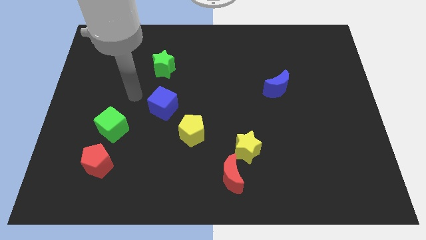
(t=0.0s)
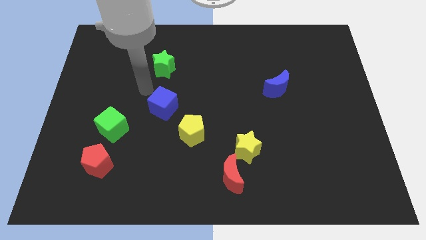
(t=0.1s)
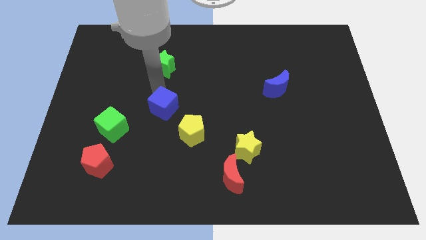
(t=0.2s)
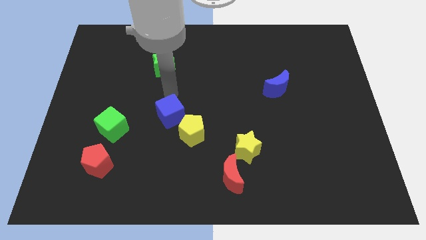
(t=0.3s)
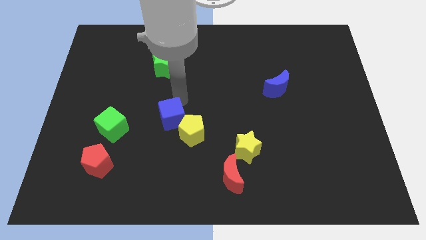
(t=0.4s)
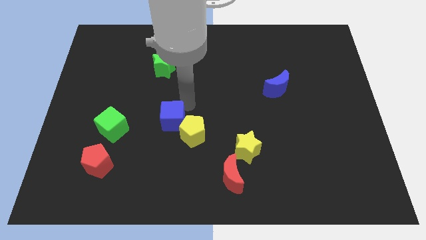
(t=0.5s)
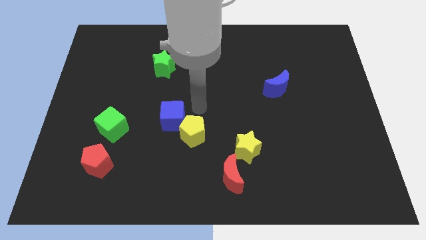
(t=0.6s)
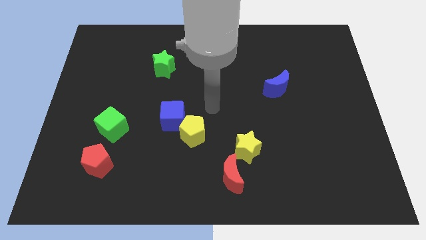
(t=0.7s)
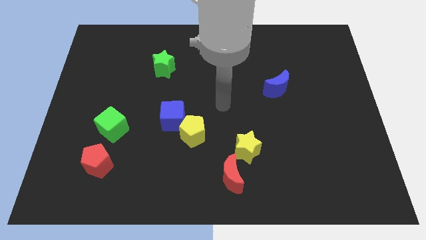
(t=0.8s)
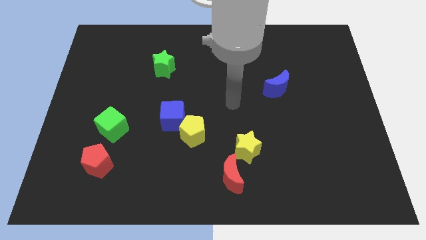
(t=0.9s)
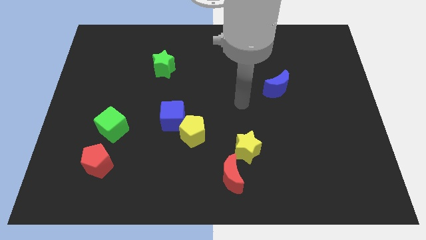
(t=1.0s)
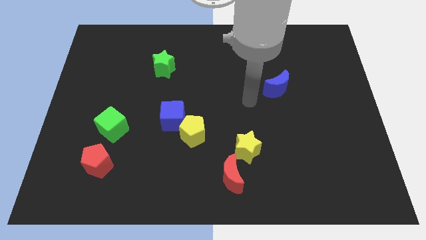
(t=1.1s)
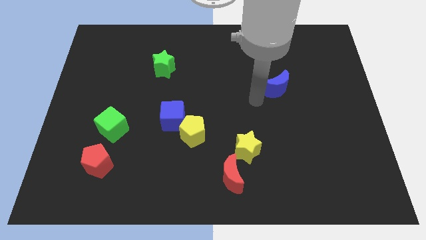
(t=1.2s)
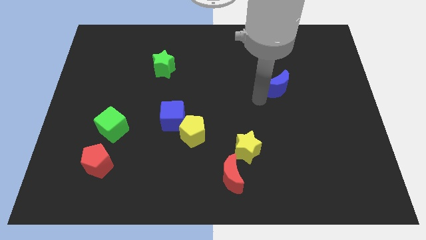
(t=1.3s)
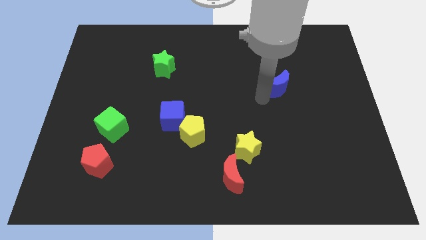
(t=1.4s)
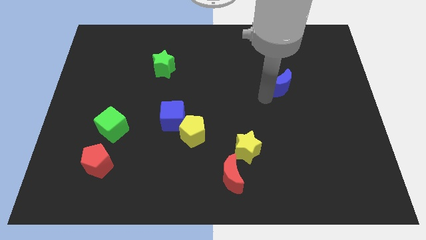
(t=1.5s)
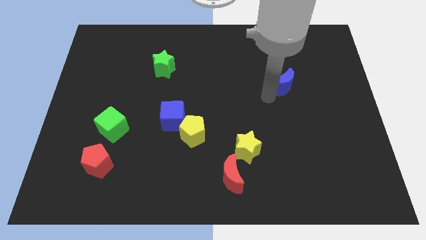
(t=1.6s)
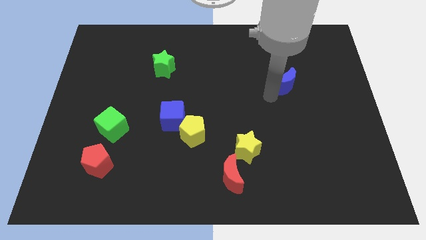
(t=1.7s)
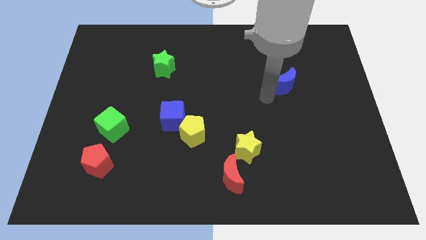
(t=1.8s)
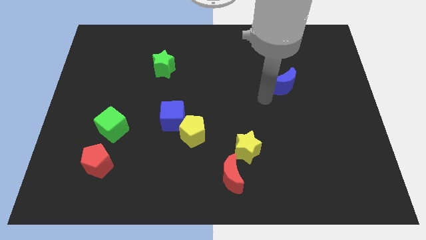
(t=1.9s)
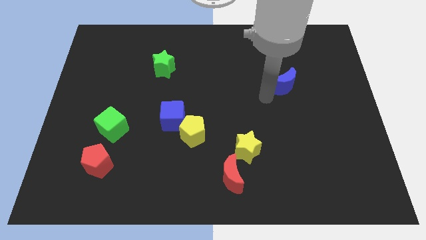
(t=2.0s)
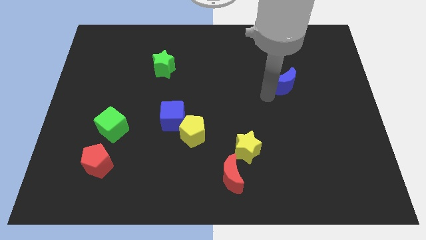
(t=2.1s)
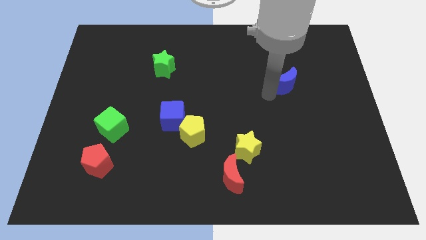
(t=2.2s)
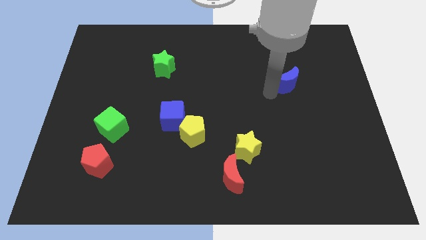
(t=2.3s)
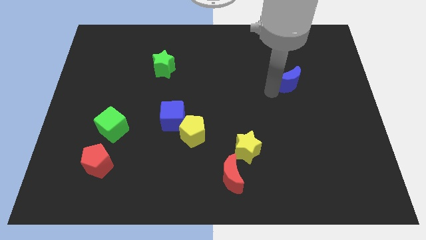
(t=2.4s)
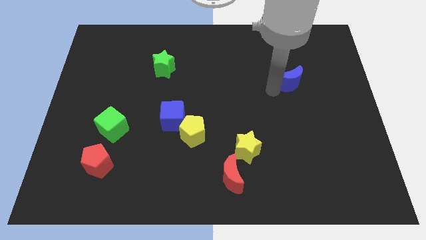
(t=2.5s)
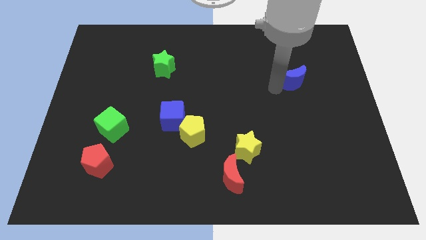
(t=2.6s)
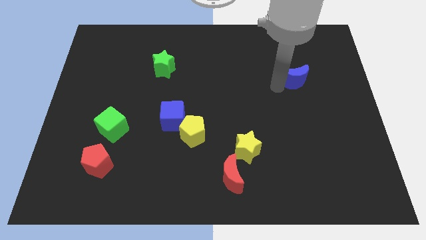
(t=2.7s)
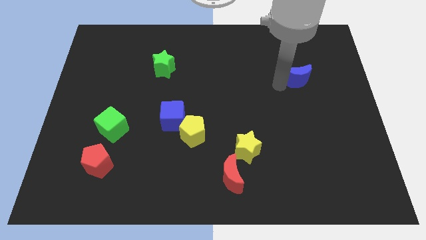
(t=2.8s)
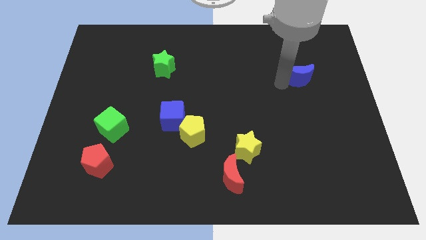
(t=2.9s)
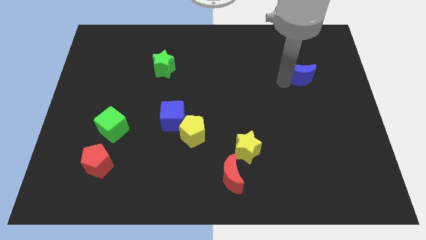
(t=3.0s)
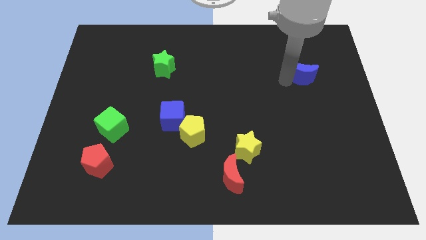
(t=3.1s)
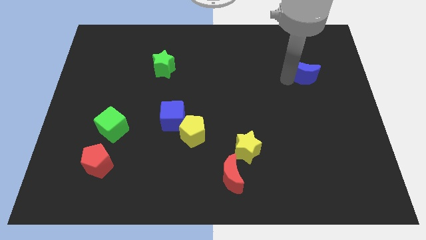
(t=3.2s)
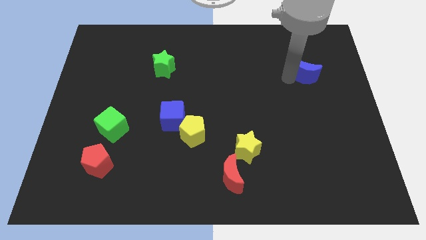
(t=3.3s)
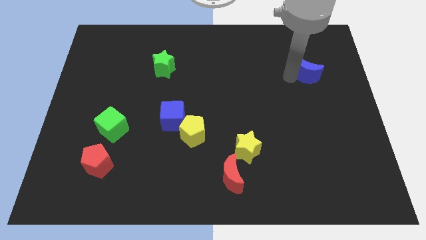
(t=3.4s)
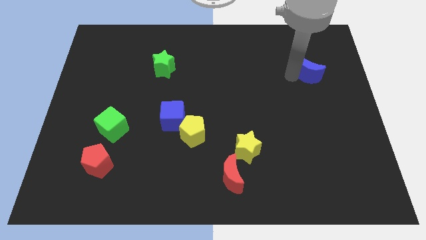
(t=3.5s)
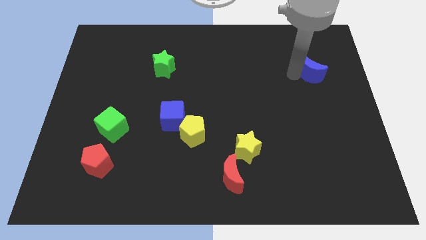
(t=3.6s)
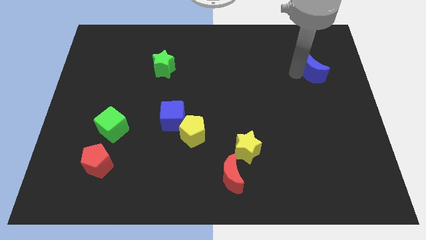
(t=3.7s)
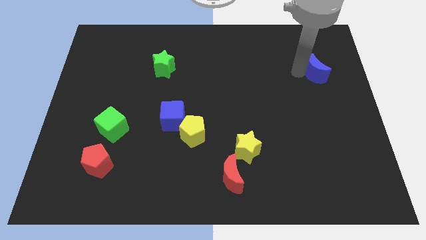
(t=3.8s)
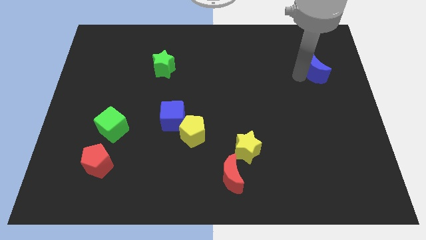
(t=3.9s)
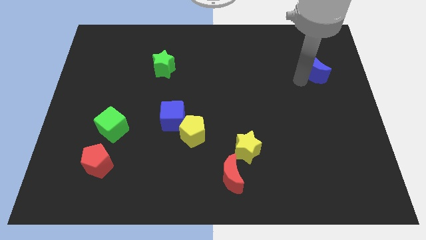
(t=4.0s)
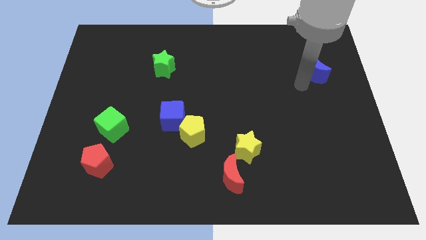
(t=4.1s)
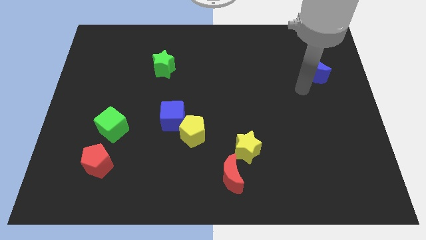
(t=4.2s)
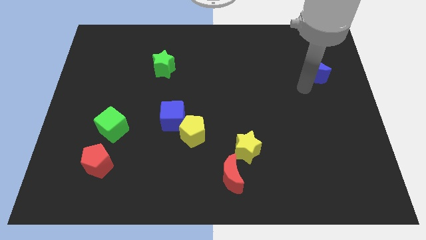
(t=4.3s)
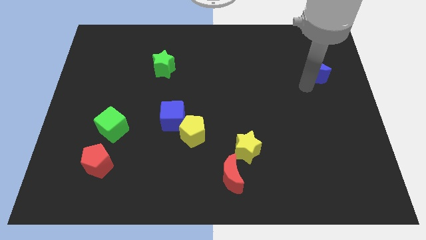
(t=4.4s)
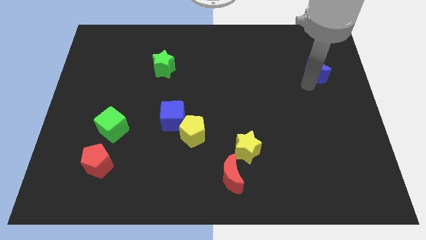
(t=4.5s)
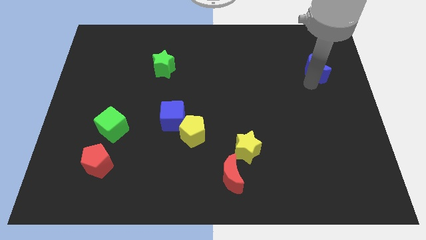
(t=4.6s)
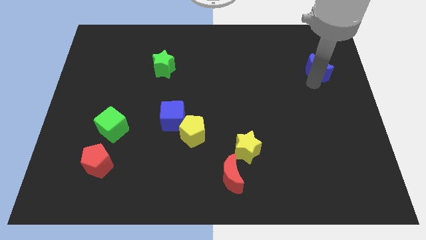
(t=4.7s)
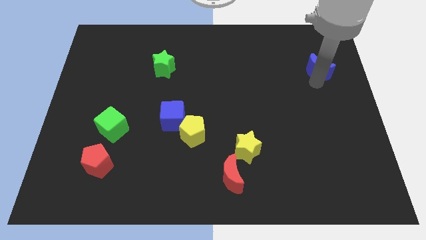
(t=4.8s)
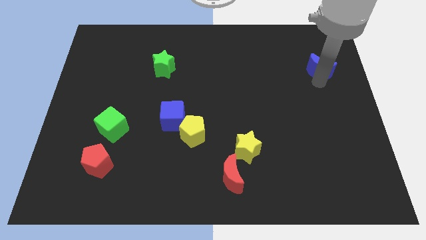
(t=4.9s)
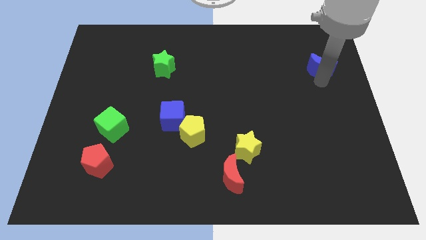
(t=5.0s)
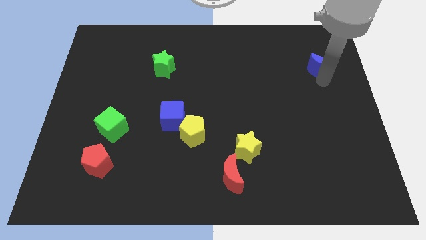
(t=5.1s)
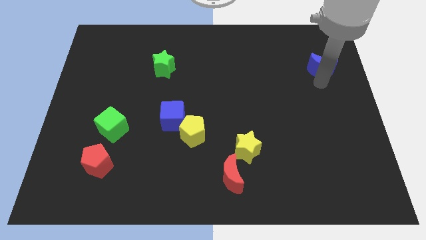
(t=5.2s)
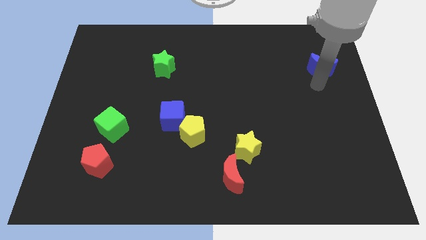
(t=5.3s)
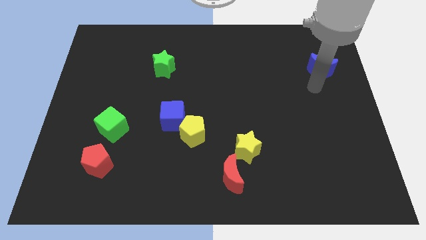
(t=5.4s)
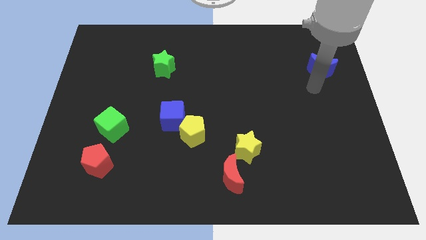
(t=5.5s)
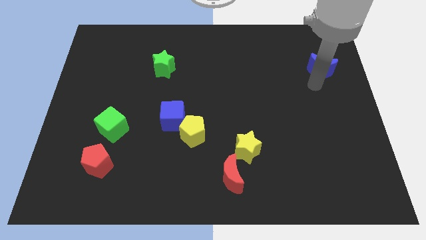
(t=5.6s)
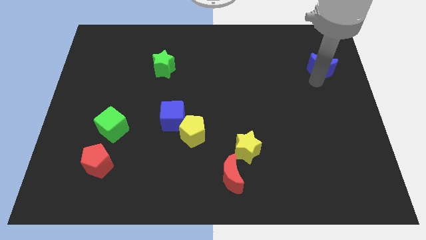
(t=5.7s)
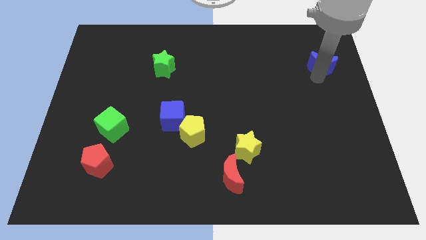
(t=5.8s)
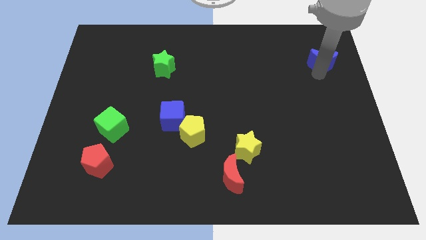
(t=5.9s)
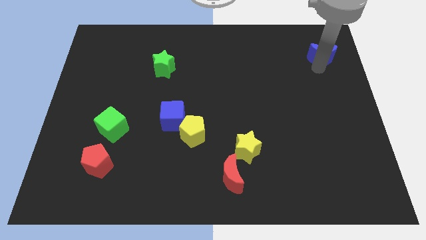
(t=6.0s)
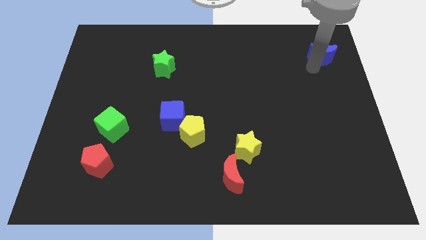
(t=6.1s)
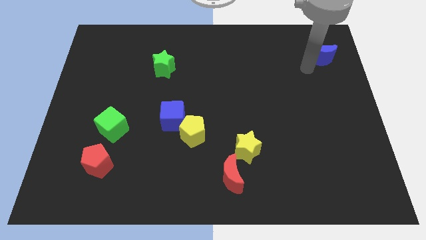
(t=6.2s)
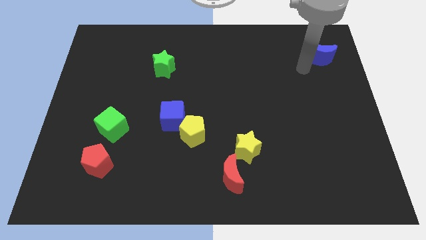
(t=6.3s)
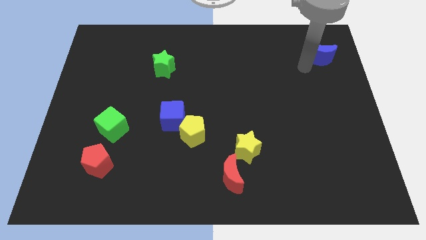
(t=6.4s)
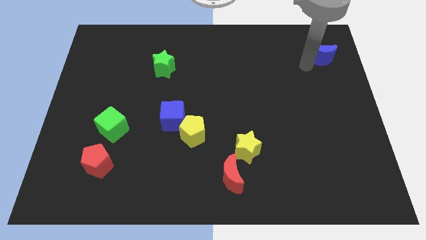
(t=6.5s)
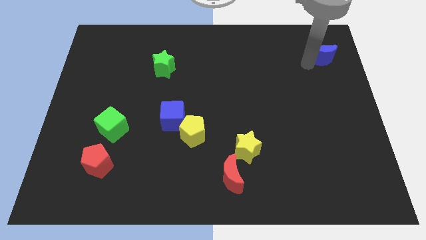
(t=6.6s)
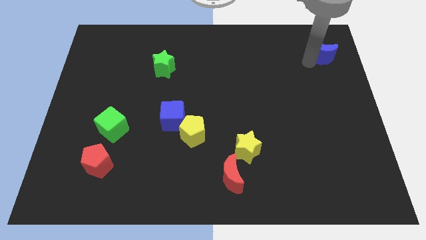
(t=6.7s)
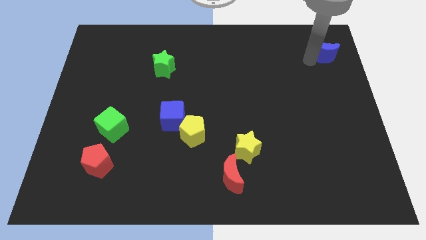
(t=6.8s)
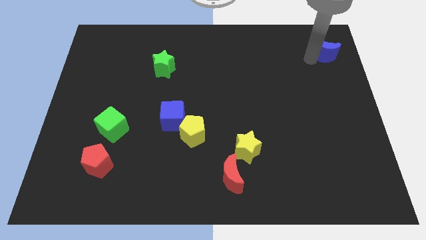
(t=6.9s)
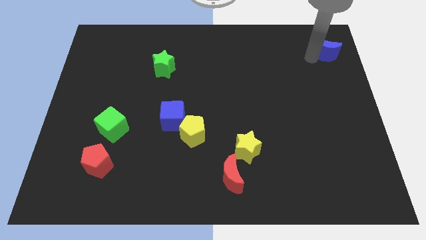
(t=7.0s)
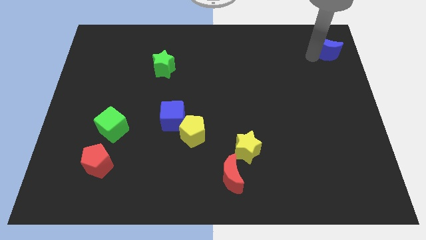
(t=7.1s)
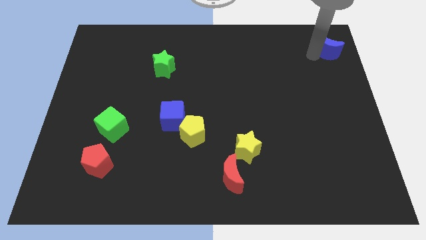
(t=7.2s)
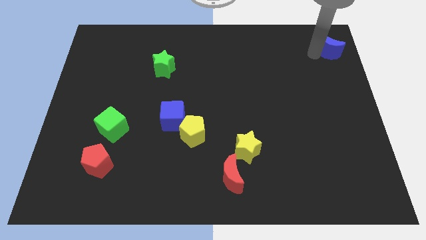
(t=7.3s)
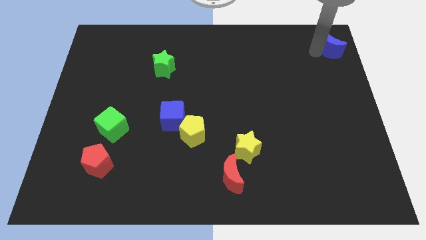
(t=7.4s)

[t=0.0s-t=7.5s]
push the blue moon to the top right of the board
